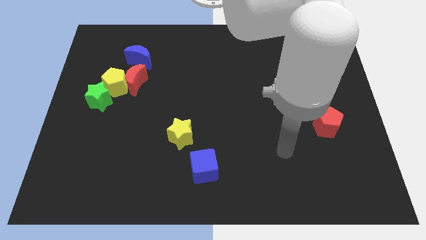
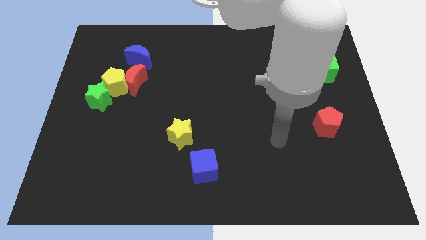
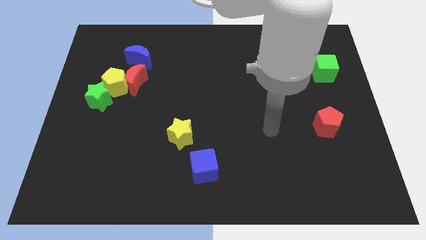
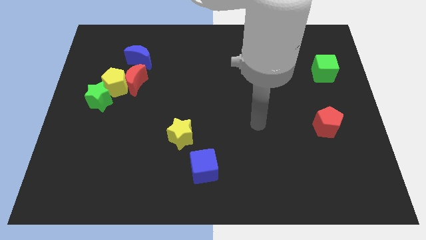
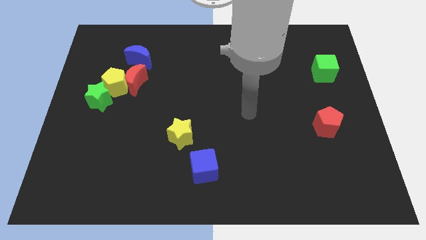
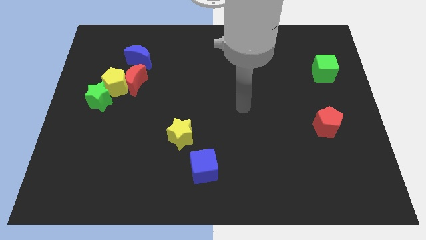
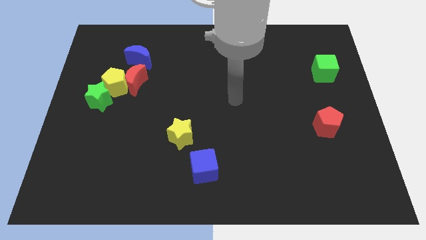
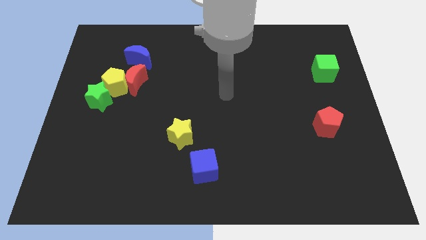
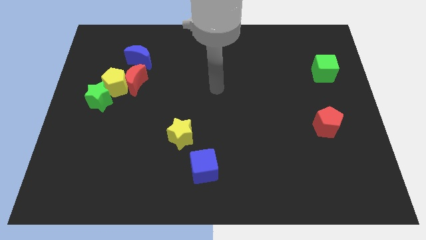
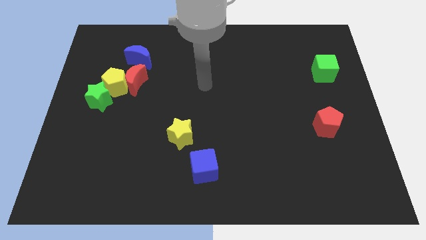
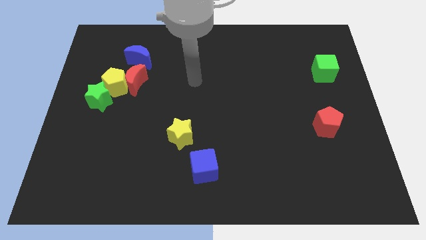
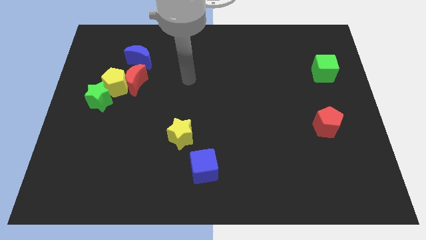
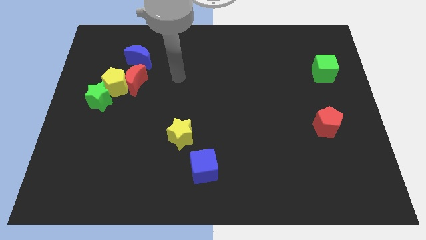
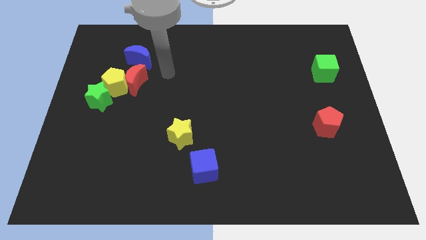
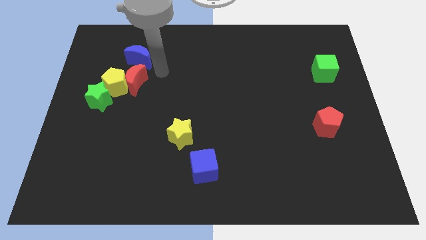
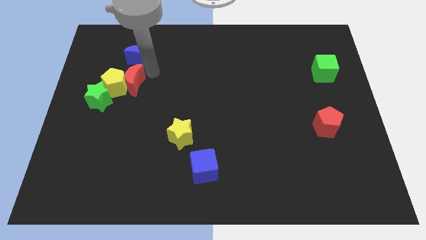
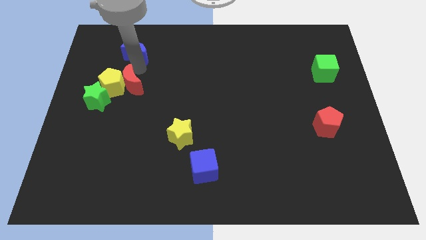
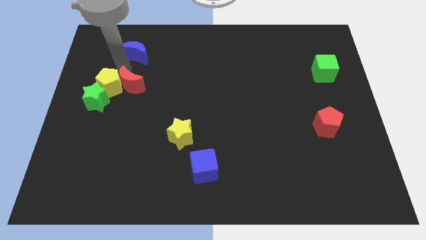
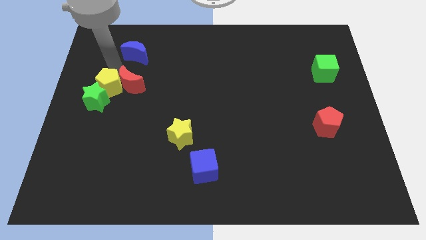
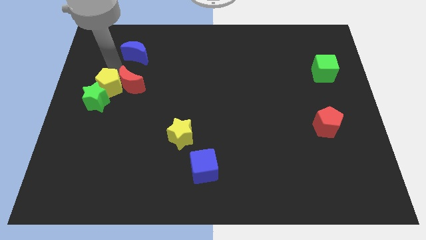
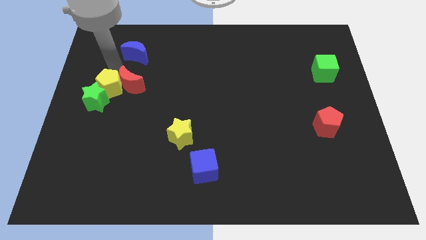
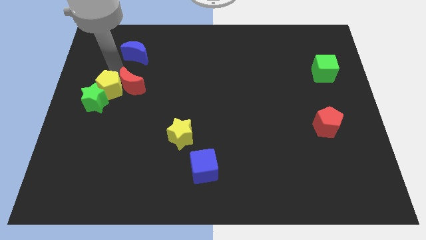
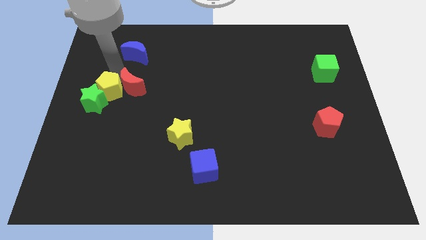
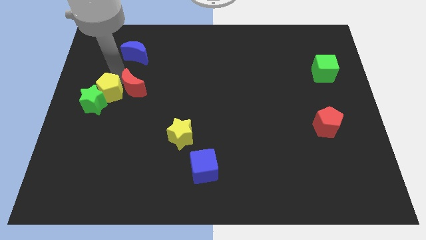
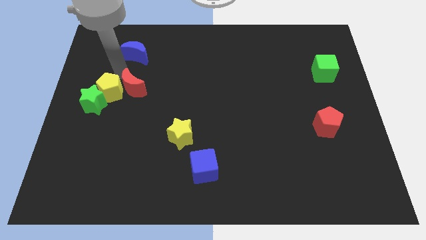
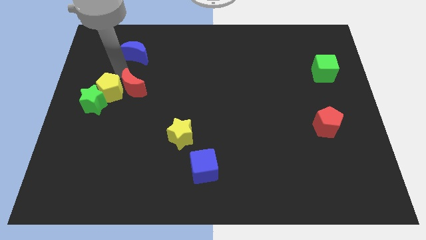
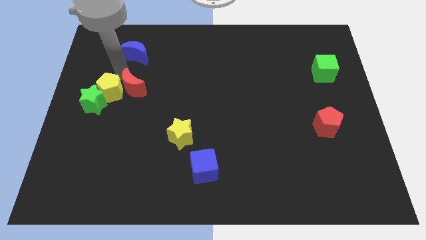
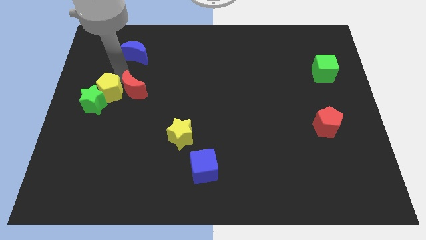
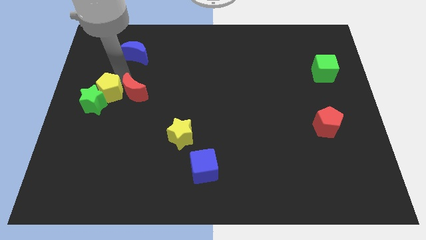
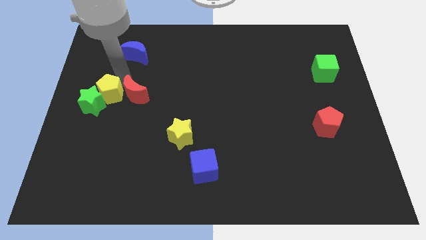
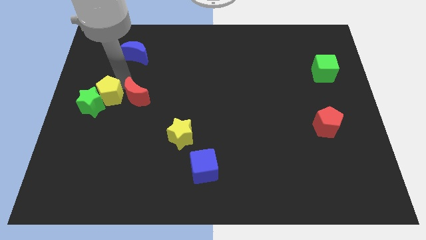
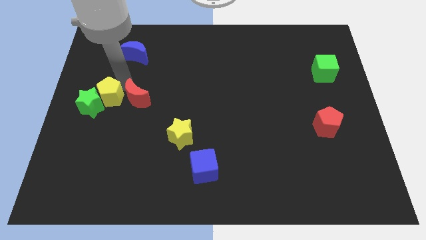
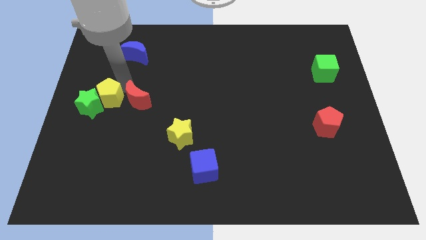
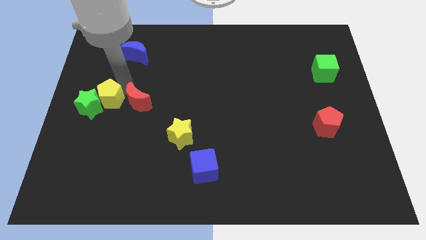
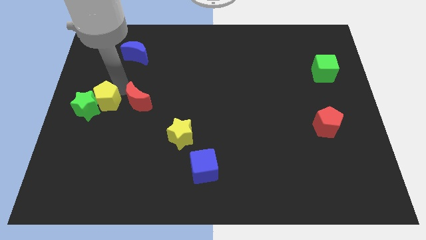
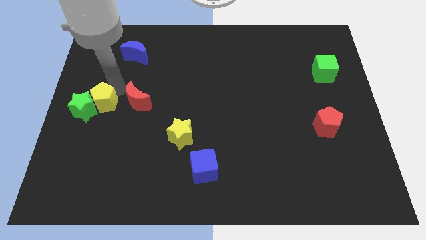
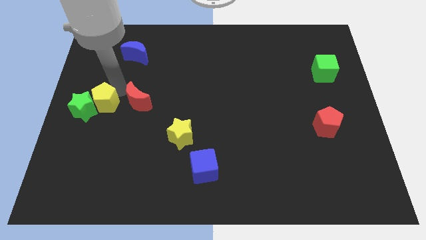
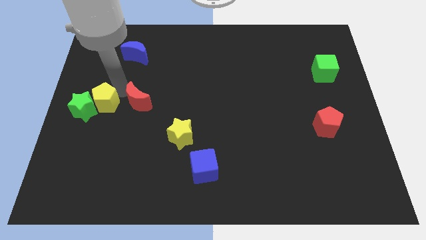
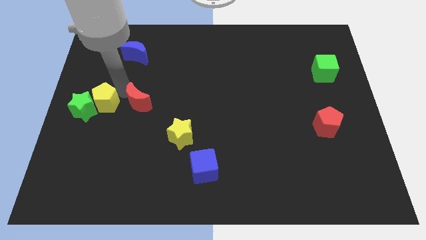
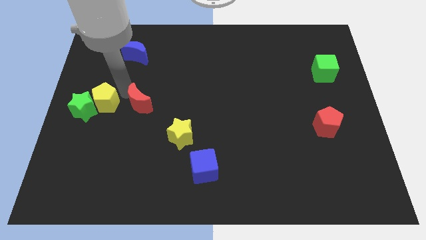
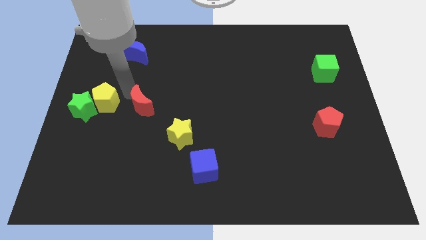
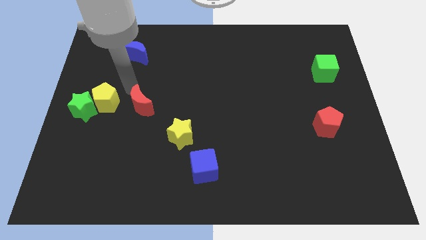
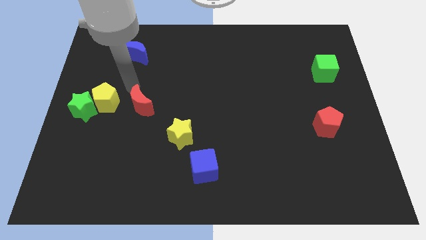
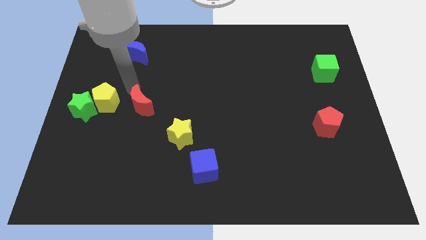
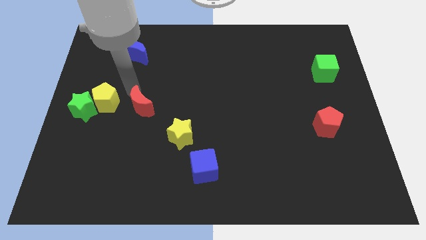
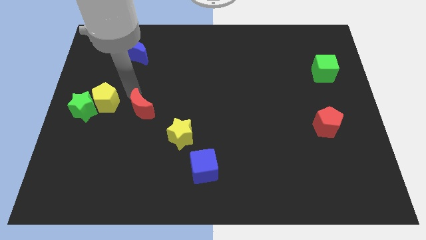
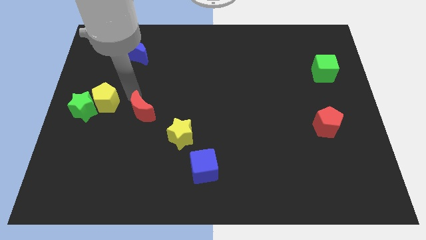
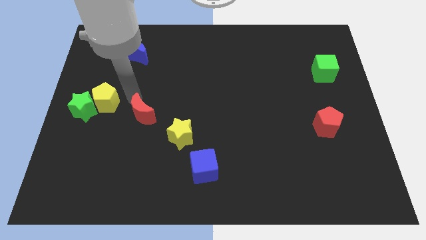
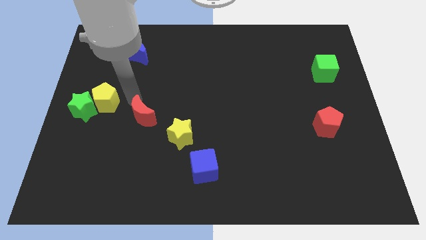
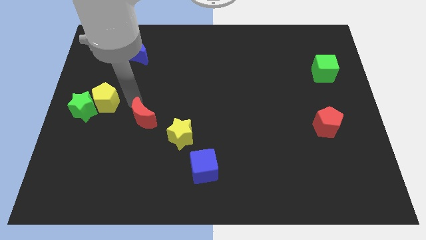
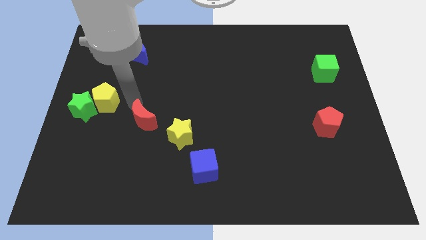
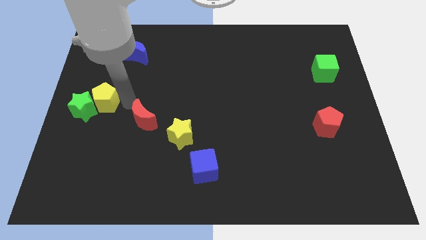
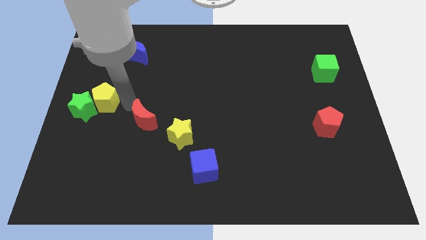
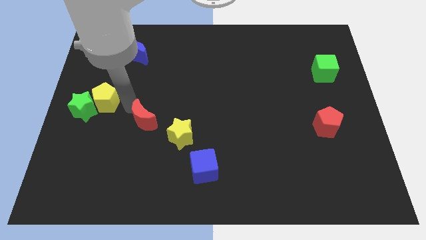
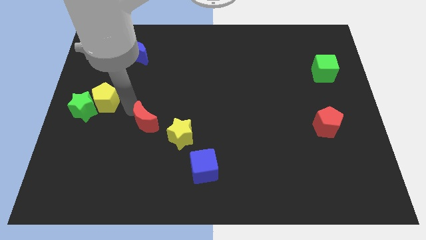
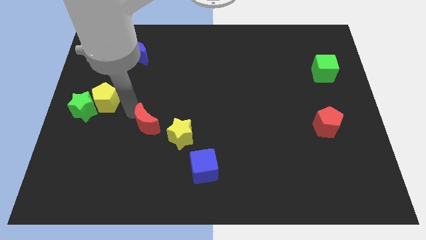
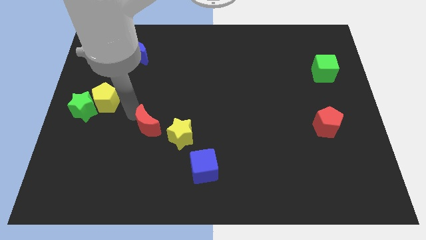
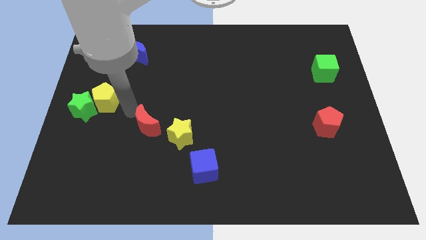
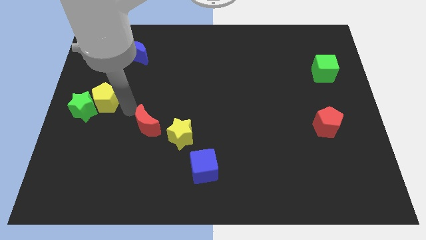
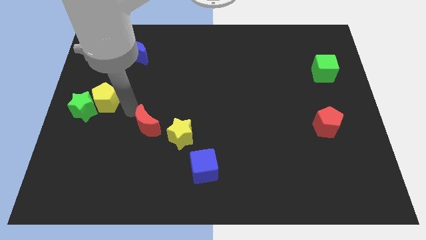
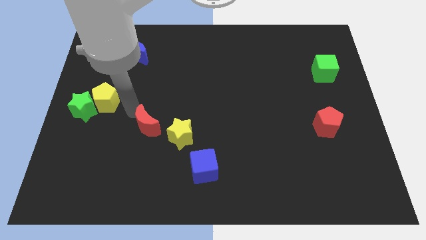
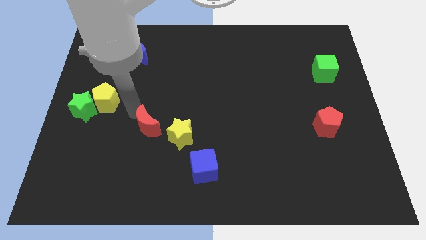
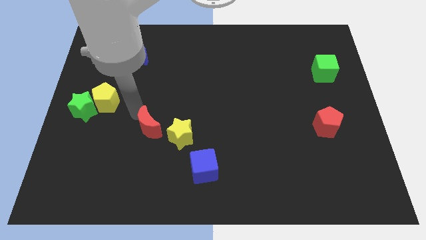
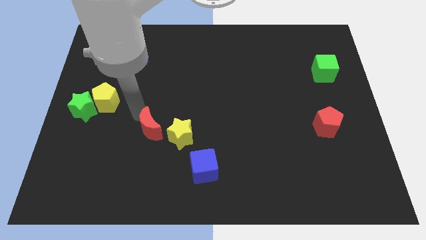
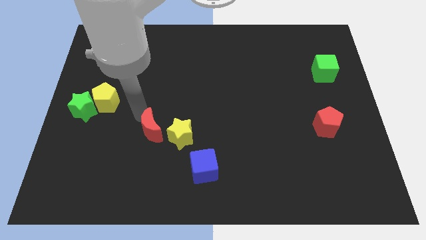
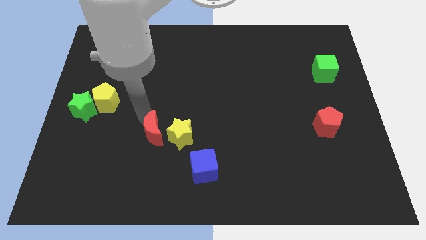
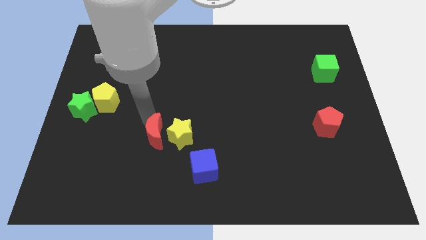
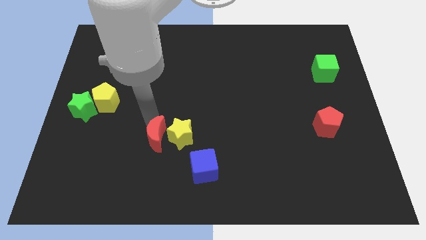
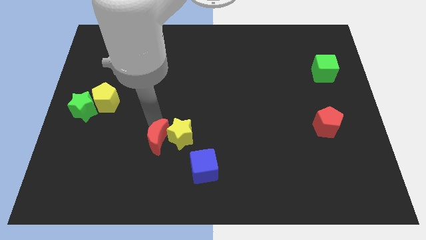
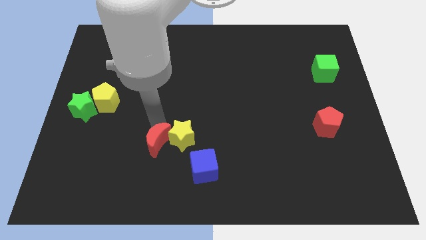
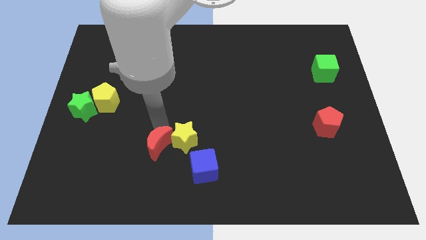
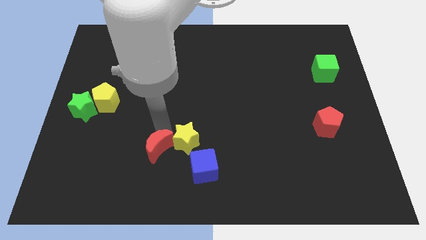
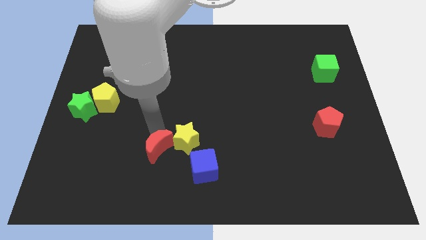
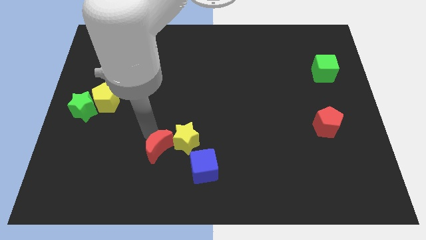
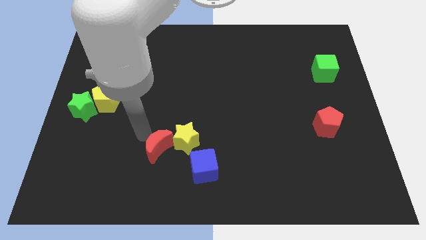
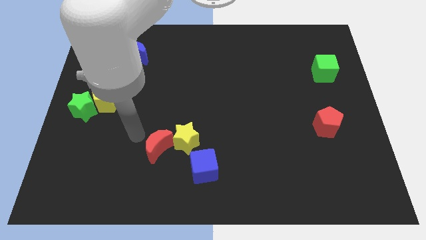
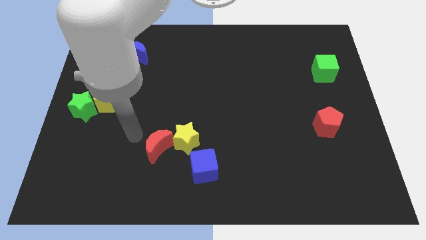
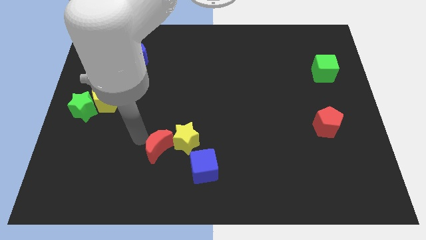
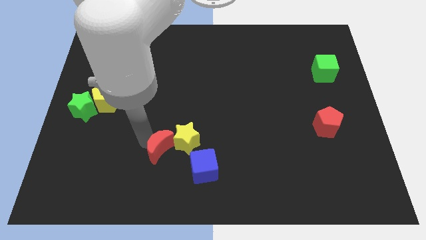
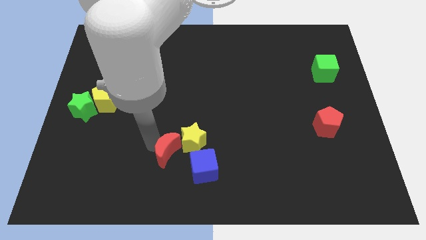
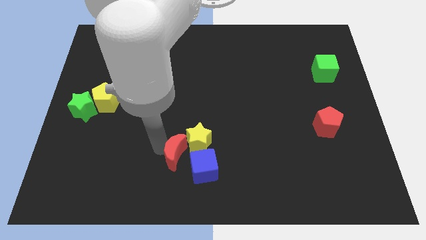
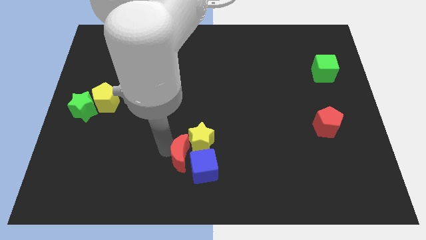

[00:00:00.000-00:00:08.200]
put the red moon towards the blue cube
